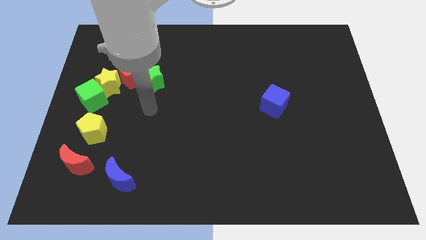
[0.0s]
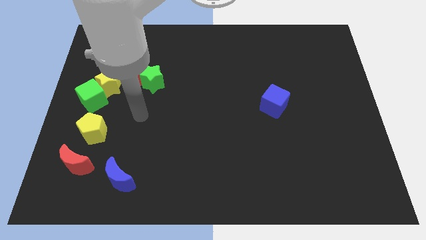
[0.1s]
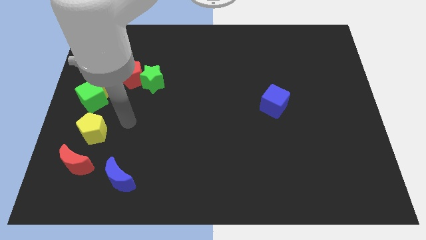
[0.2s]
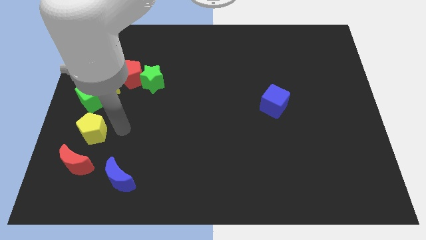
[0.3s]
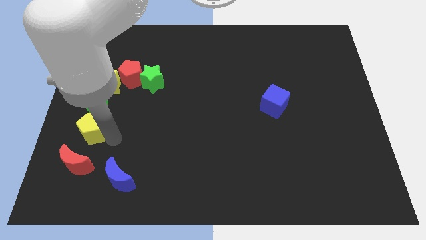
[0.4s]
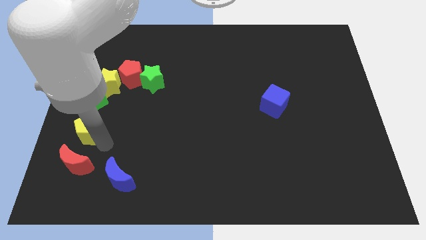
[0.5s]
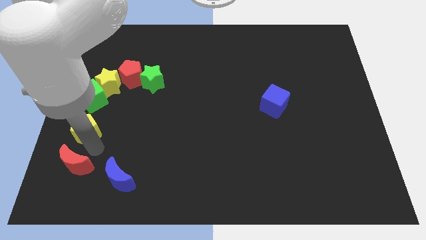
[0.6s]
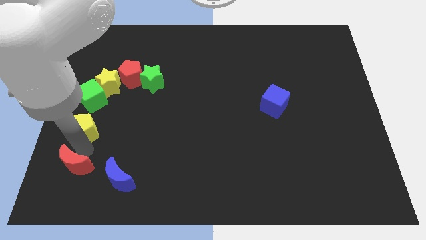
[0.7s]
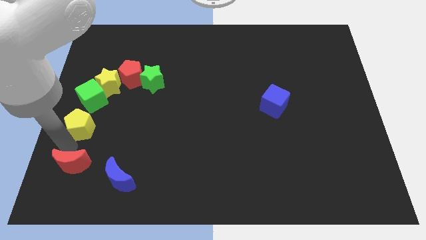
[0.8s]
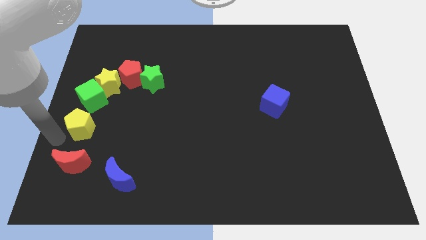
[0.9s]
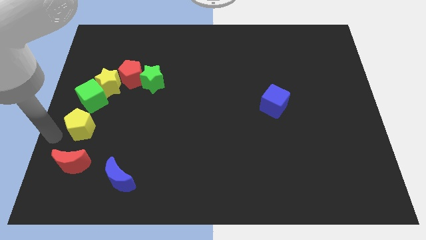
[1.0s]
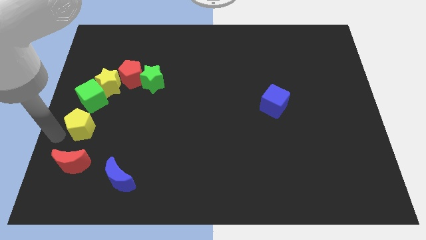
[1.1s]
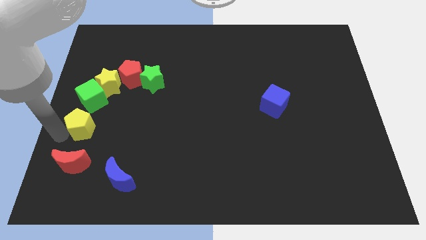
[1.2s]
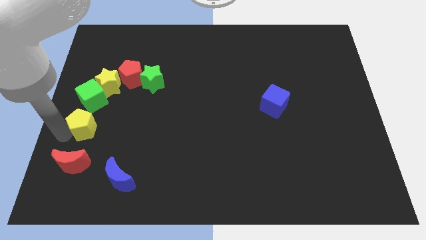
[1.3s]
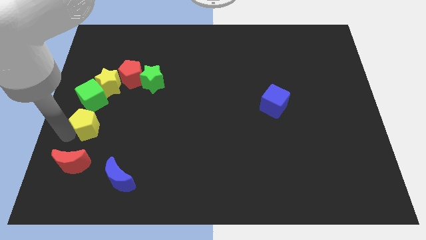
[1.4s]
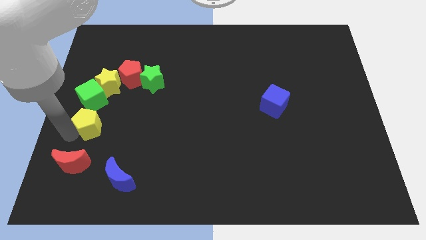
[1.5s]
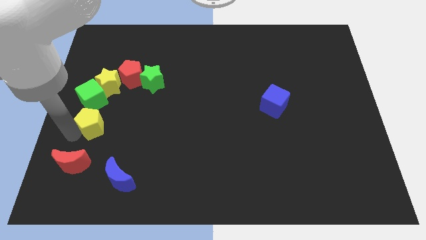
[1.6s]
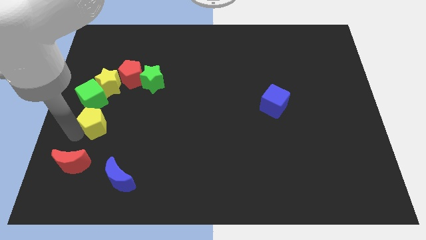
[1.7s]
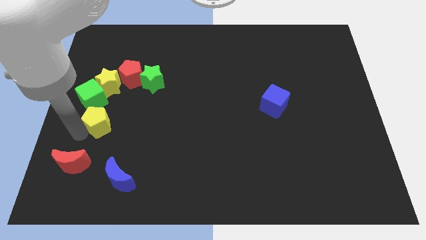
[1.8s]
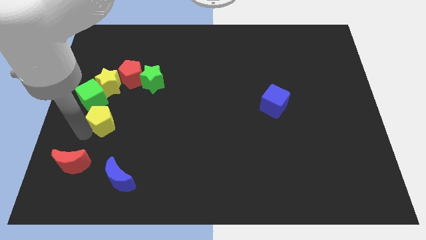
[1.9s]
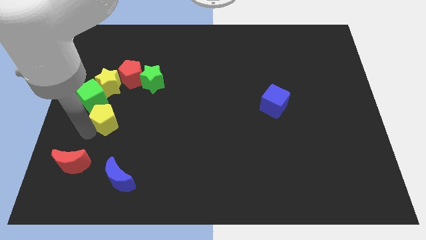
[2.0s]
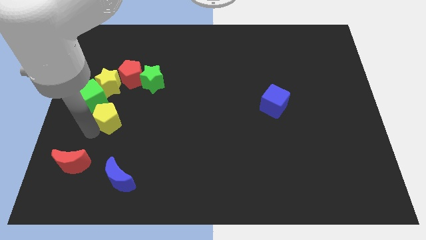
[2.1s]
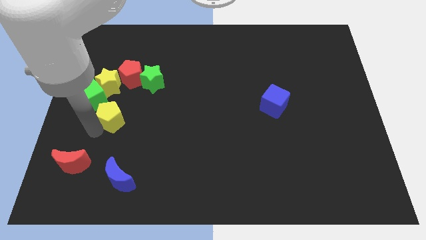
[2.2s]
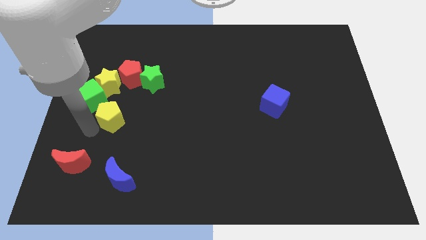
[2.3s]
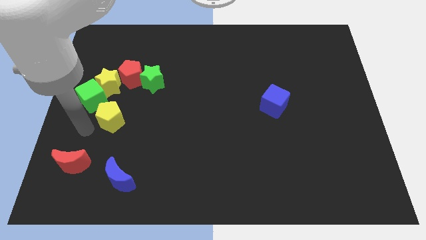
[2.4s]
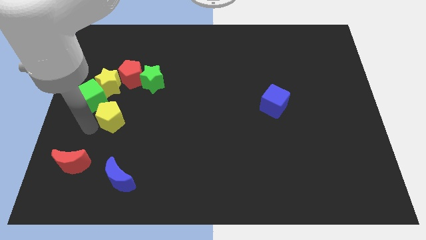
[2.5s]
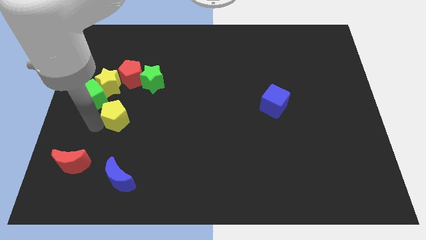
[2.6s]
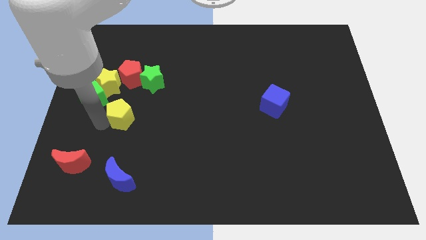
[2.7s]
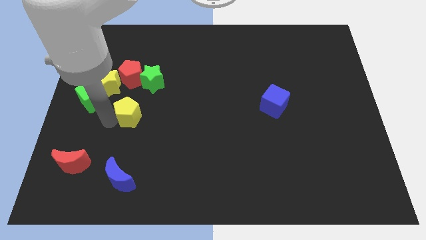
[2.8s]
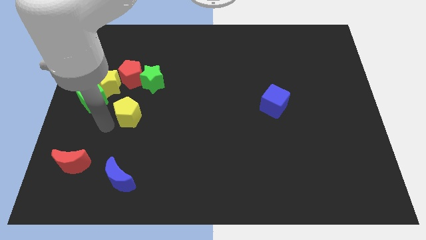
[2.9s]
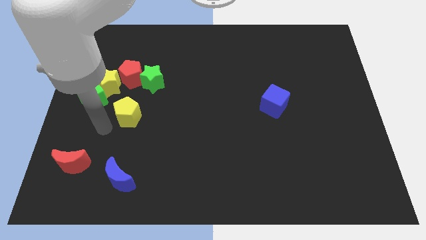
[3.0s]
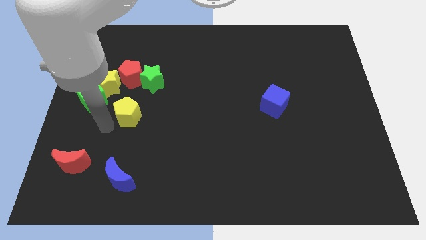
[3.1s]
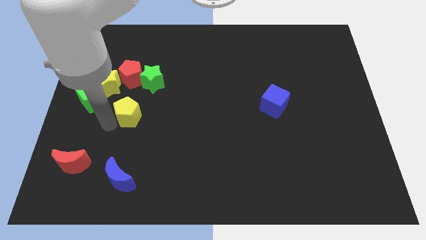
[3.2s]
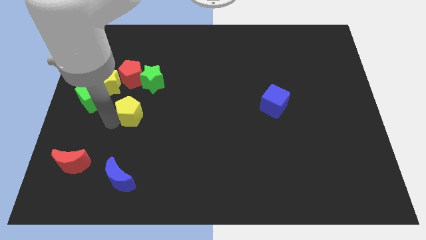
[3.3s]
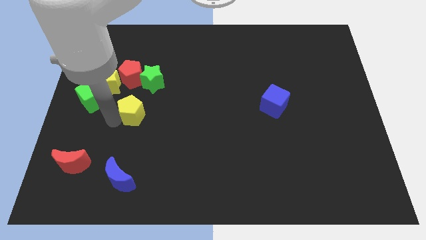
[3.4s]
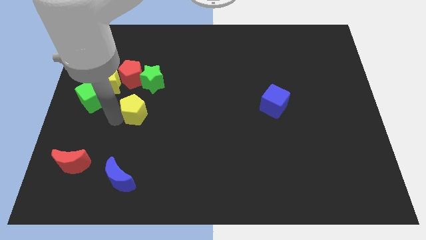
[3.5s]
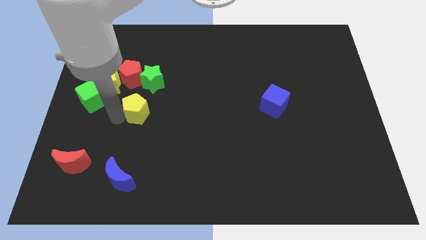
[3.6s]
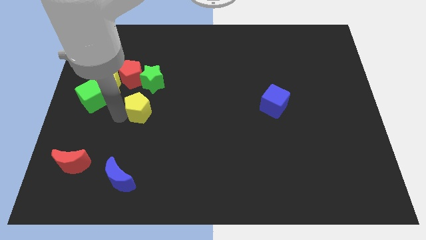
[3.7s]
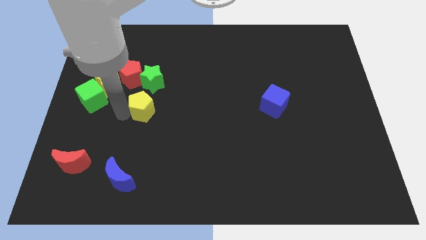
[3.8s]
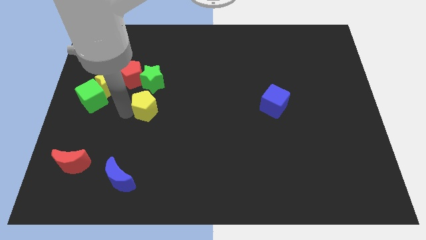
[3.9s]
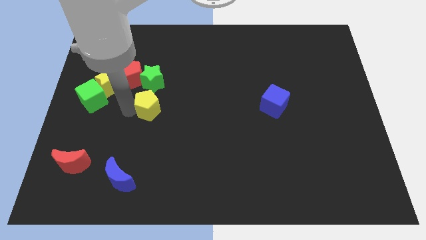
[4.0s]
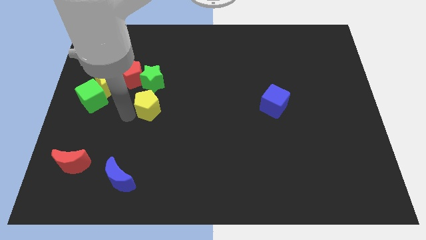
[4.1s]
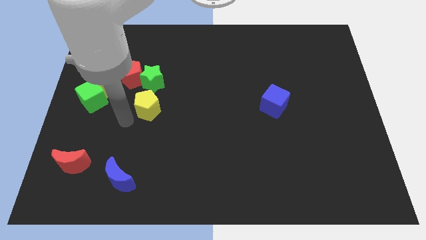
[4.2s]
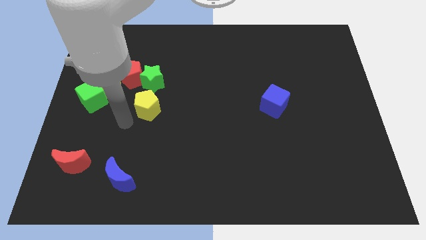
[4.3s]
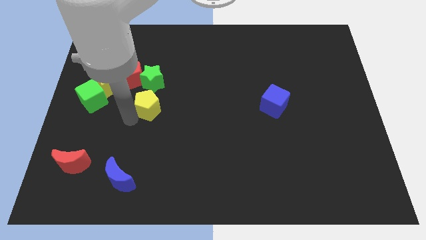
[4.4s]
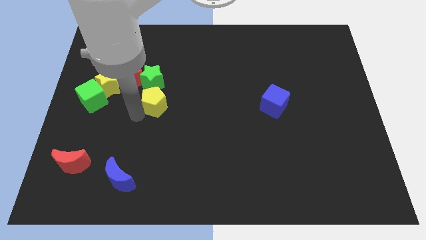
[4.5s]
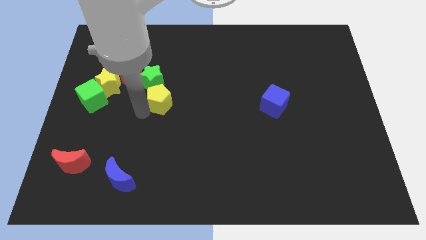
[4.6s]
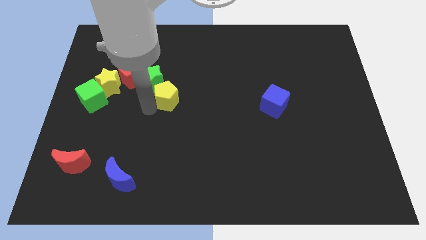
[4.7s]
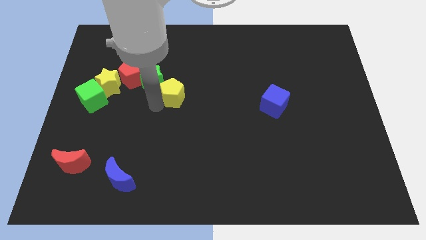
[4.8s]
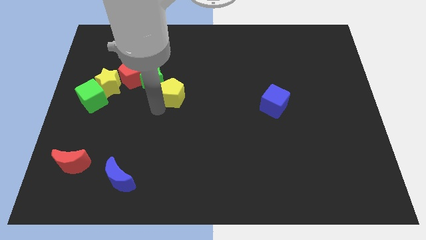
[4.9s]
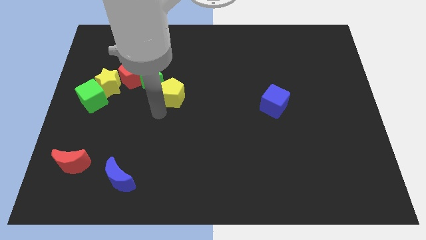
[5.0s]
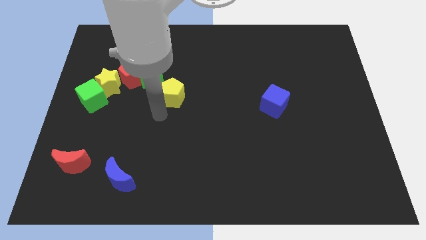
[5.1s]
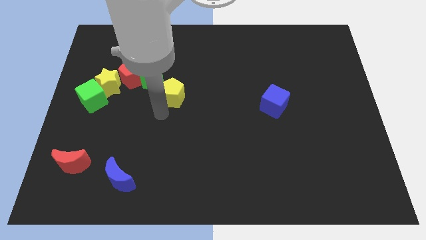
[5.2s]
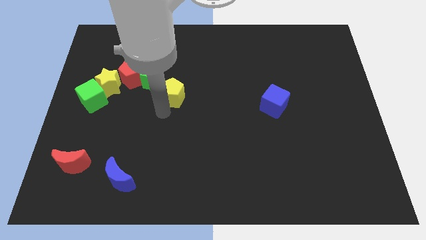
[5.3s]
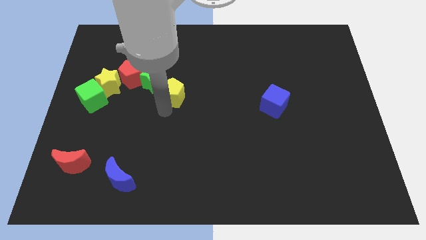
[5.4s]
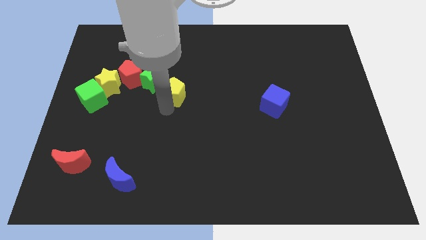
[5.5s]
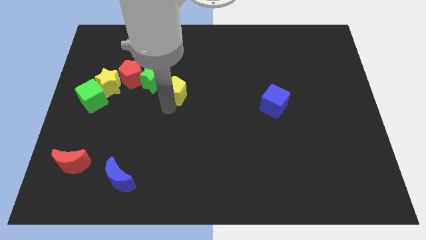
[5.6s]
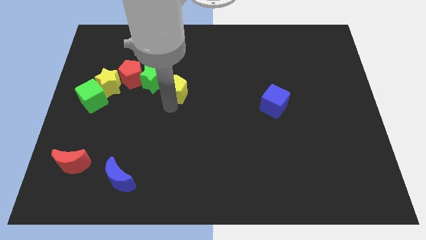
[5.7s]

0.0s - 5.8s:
move the yellow pentagon diagonally up and to the right

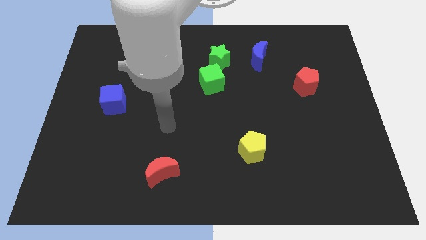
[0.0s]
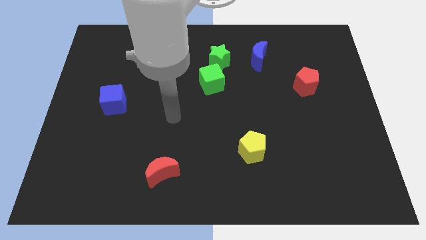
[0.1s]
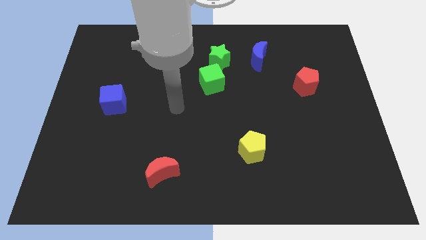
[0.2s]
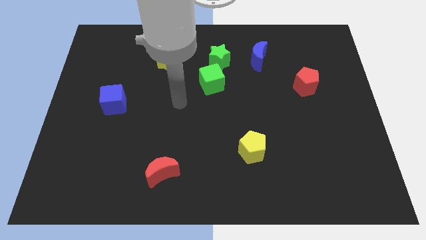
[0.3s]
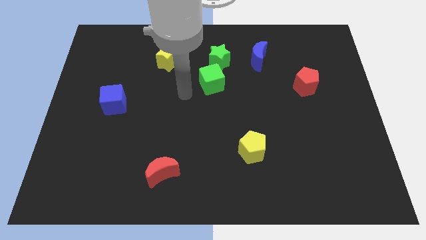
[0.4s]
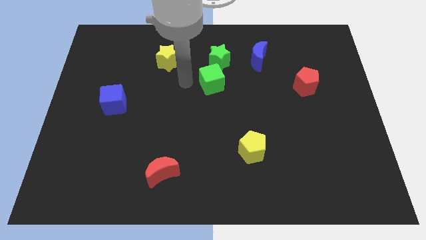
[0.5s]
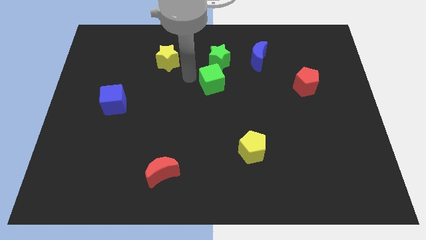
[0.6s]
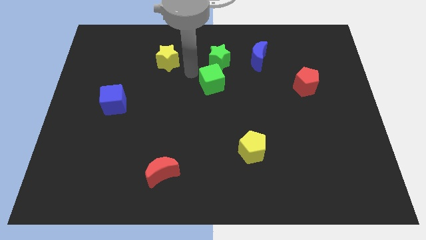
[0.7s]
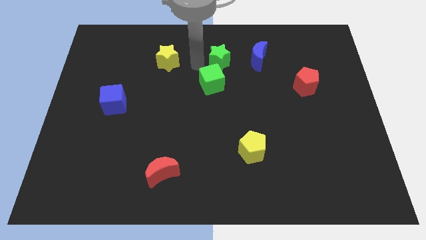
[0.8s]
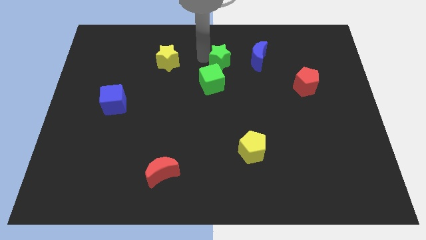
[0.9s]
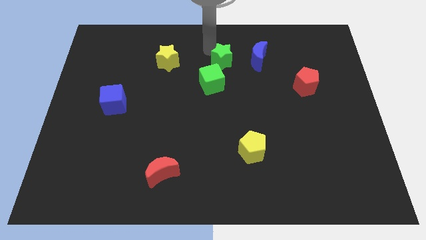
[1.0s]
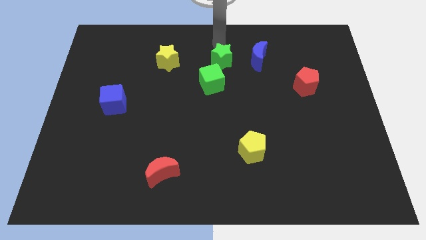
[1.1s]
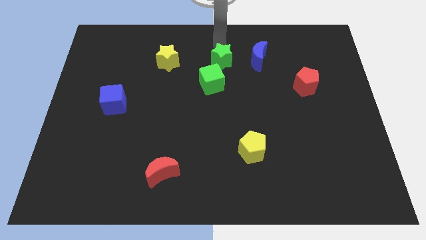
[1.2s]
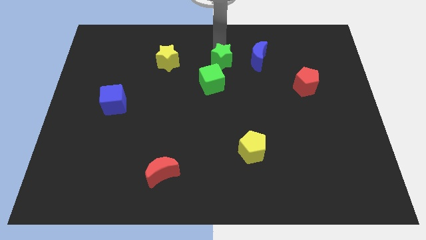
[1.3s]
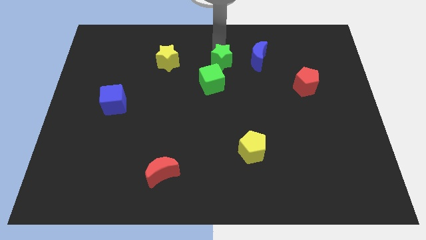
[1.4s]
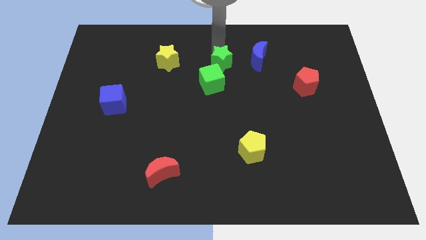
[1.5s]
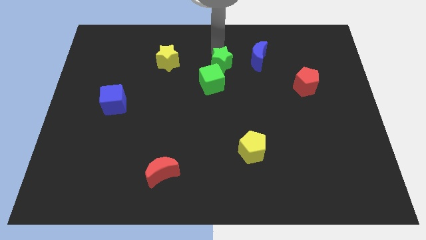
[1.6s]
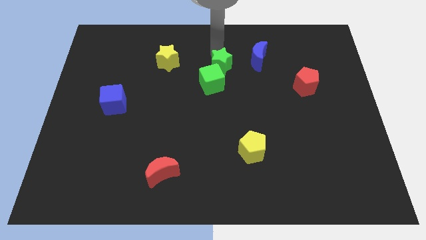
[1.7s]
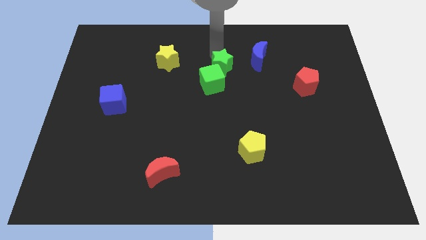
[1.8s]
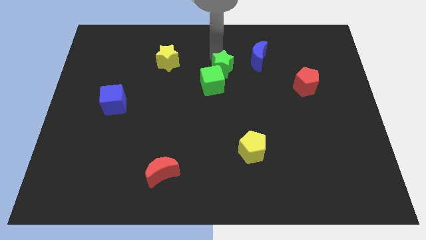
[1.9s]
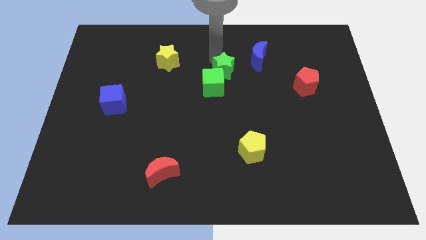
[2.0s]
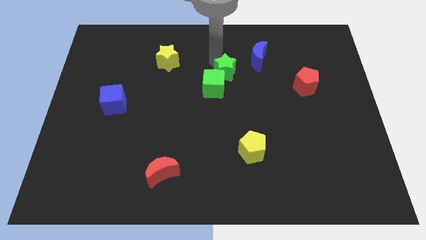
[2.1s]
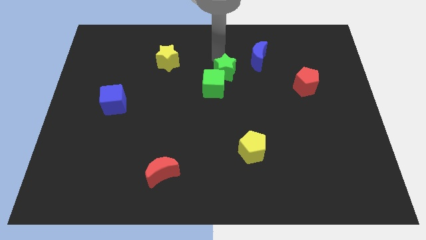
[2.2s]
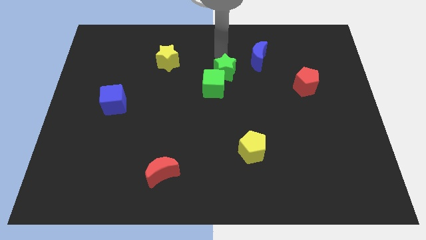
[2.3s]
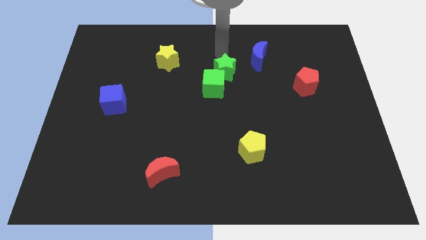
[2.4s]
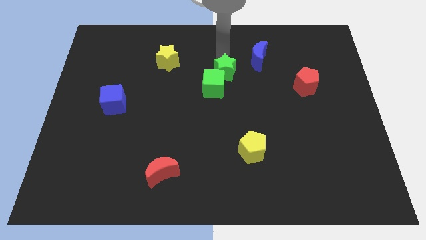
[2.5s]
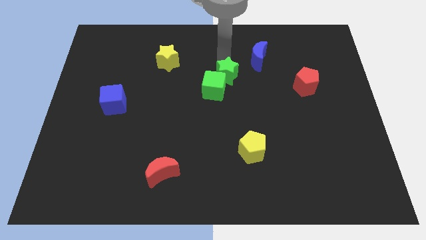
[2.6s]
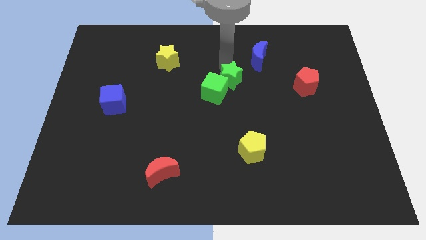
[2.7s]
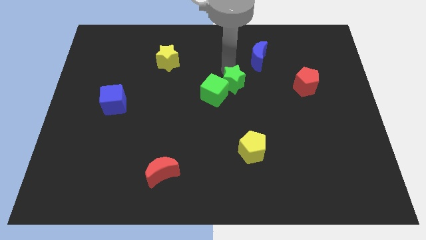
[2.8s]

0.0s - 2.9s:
slightly push the green star downwards

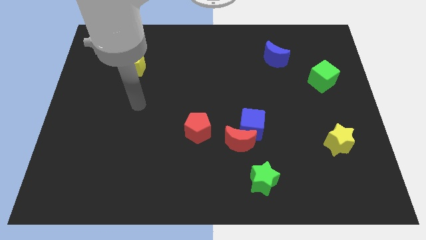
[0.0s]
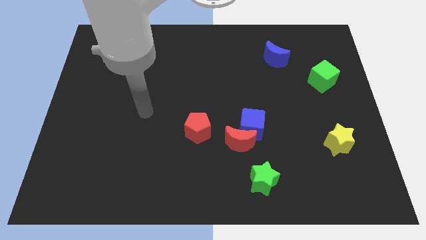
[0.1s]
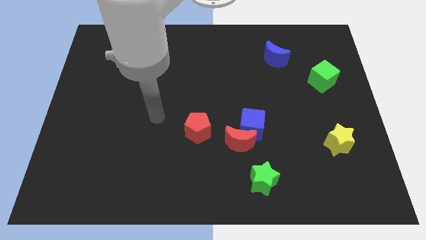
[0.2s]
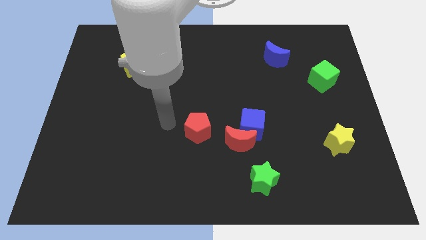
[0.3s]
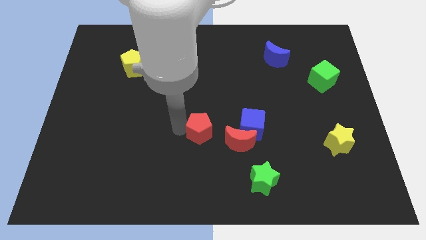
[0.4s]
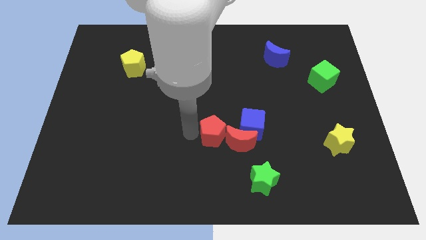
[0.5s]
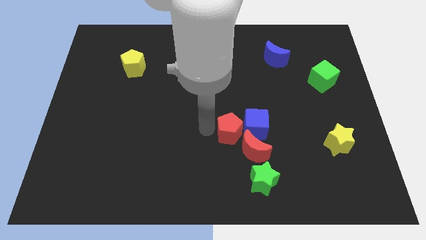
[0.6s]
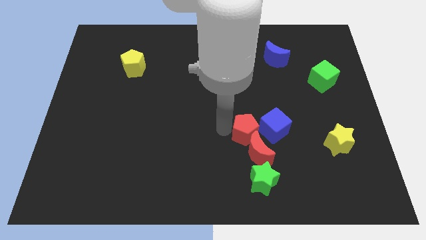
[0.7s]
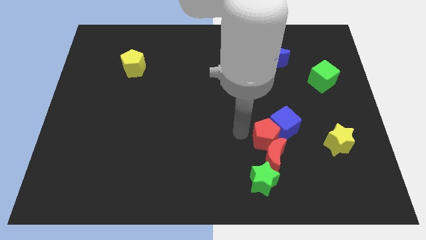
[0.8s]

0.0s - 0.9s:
slide the blue cube right a little
